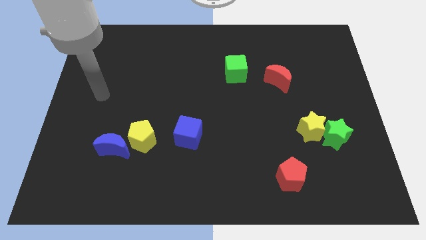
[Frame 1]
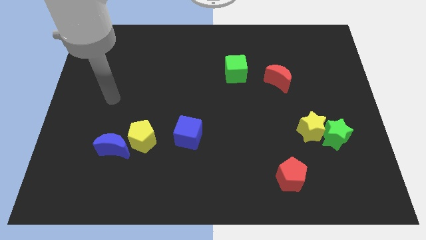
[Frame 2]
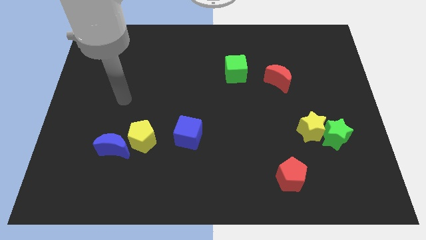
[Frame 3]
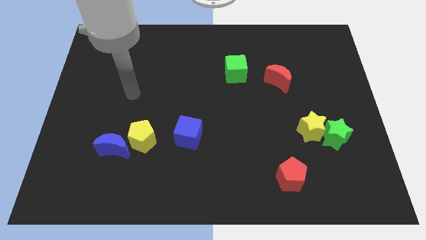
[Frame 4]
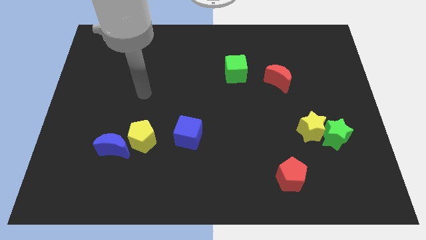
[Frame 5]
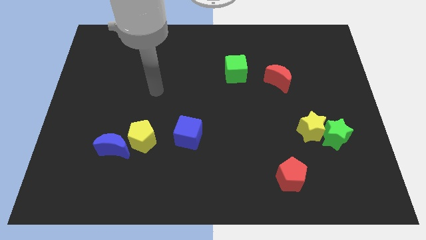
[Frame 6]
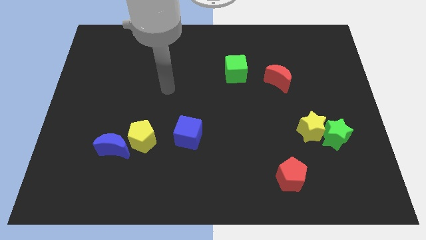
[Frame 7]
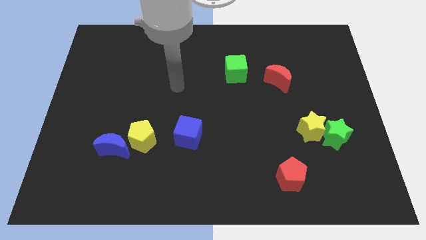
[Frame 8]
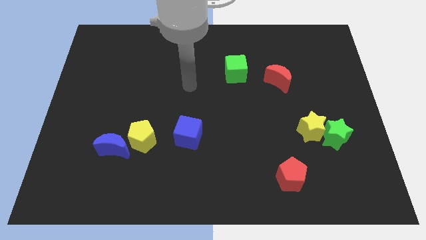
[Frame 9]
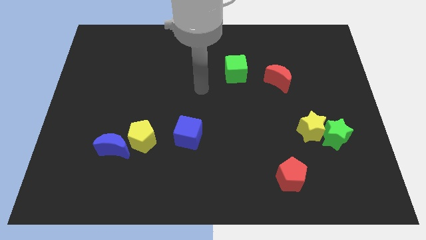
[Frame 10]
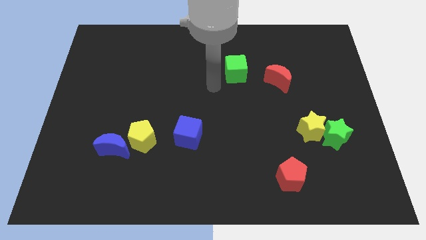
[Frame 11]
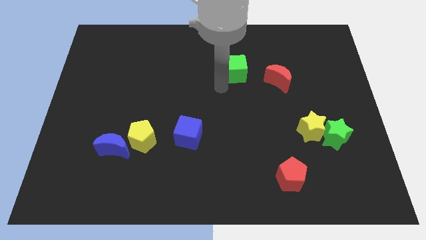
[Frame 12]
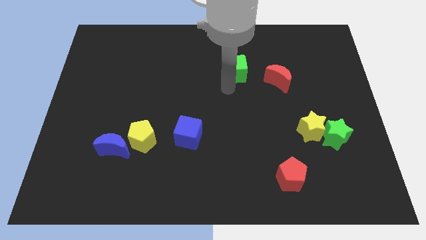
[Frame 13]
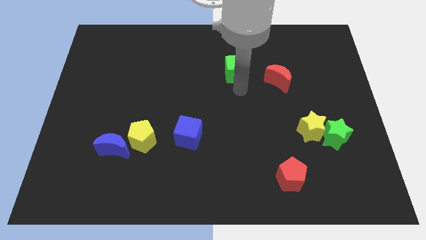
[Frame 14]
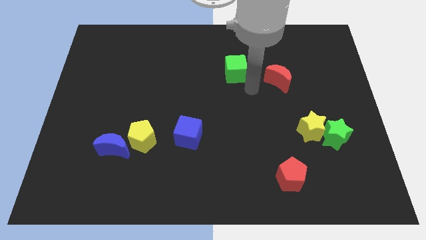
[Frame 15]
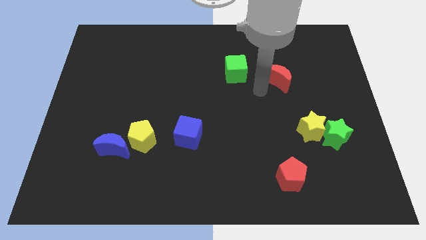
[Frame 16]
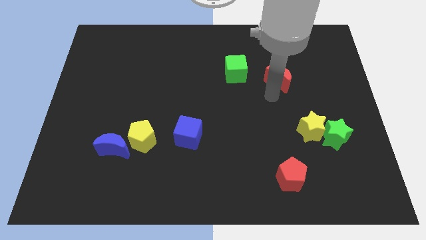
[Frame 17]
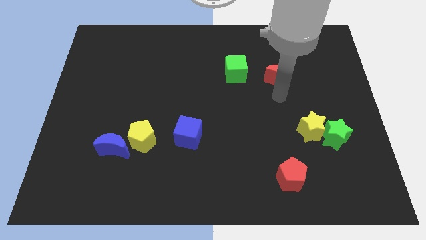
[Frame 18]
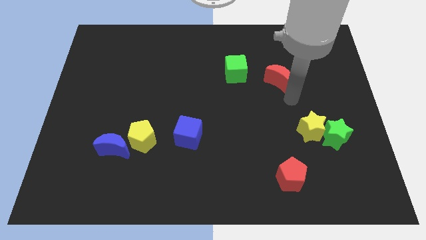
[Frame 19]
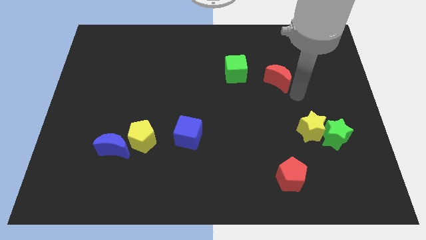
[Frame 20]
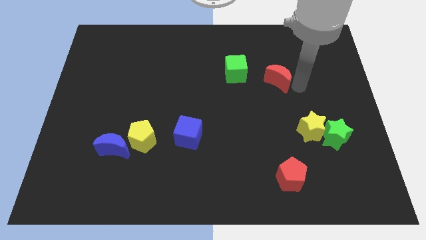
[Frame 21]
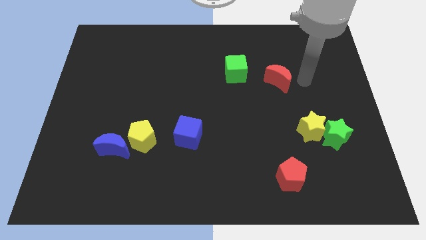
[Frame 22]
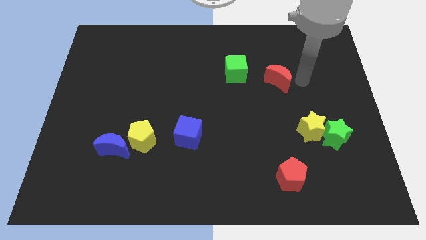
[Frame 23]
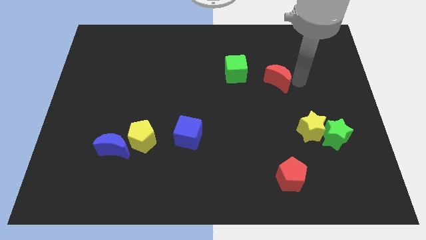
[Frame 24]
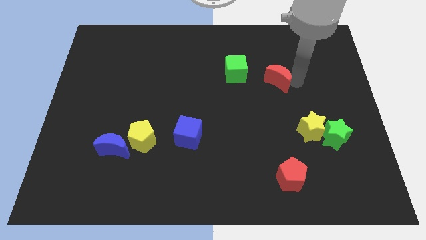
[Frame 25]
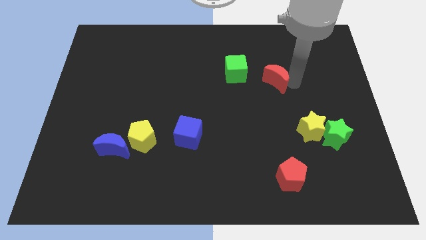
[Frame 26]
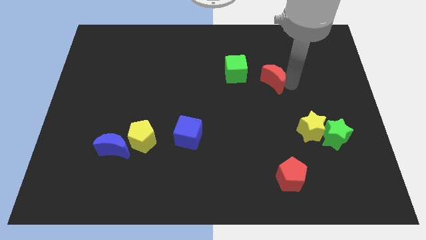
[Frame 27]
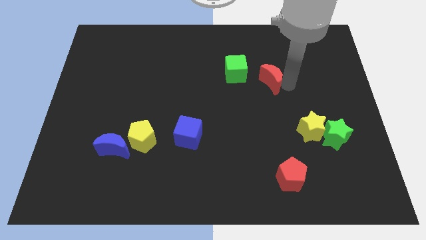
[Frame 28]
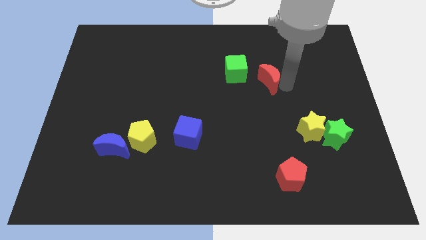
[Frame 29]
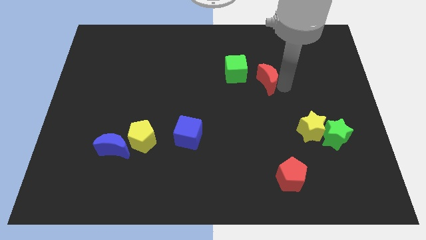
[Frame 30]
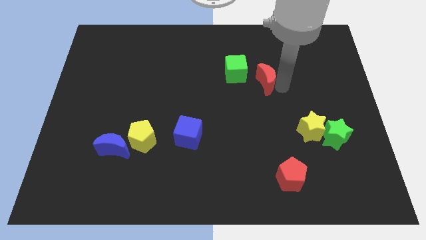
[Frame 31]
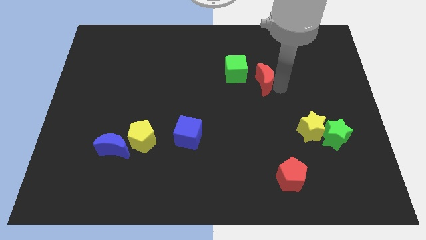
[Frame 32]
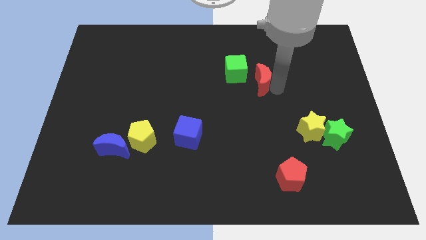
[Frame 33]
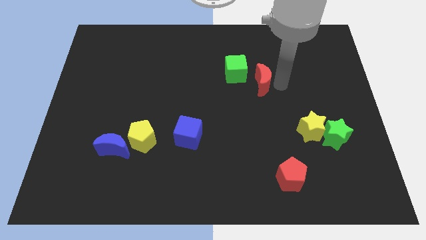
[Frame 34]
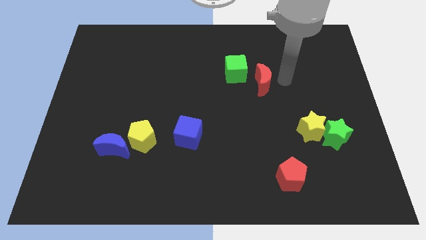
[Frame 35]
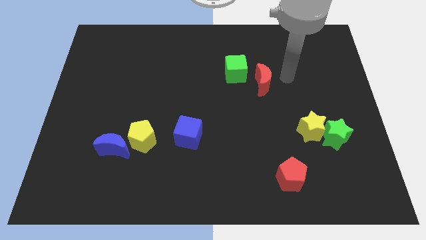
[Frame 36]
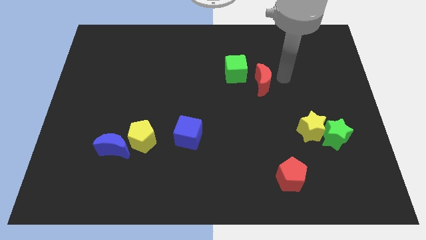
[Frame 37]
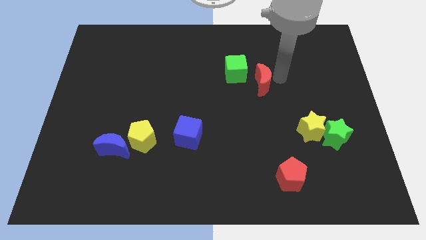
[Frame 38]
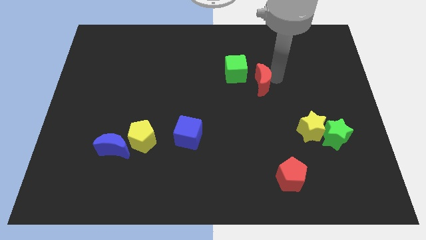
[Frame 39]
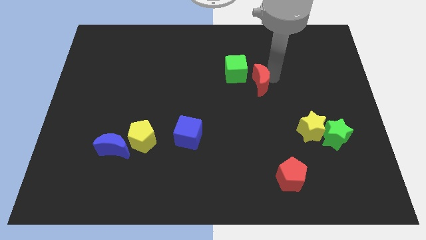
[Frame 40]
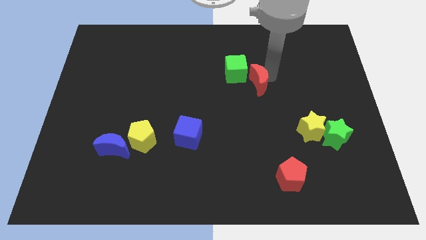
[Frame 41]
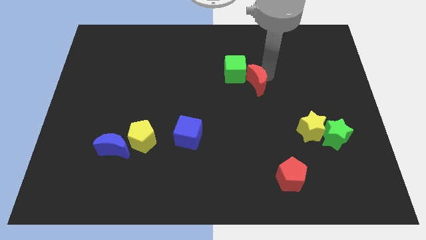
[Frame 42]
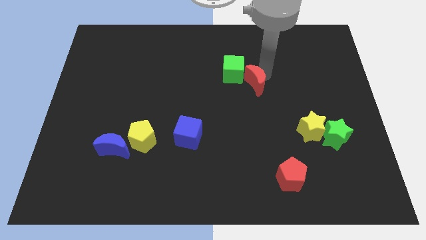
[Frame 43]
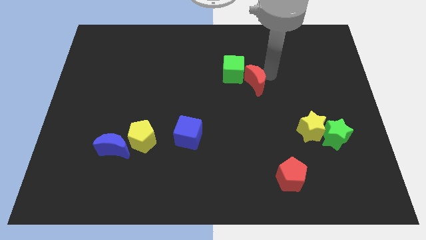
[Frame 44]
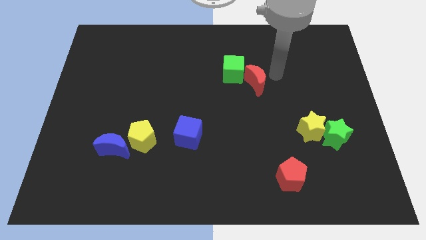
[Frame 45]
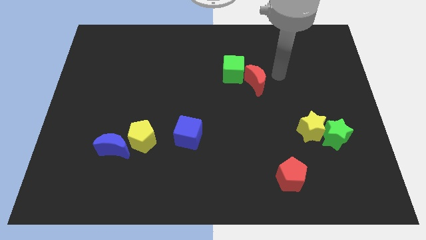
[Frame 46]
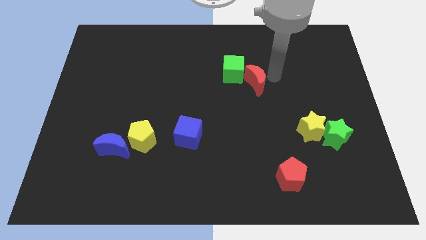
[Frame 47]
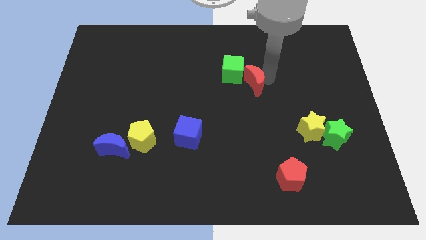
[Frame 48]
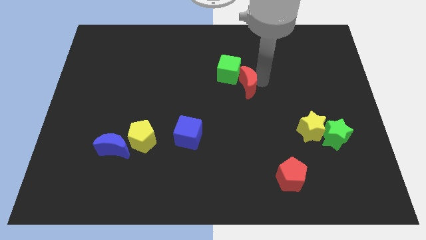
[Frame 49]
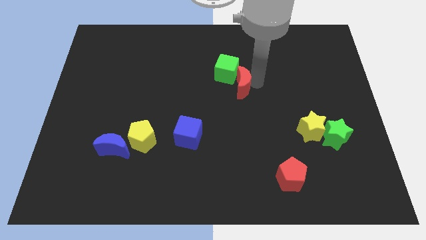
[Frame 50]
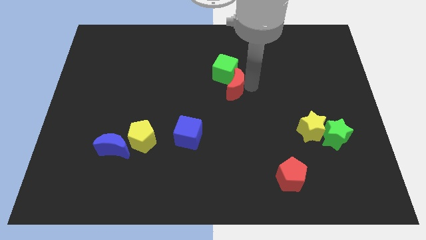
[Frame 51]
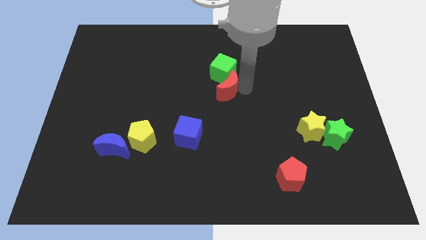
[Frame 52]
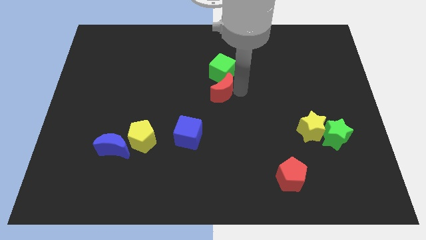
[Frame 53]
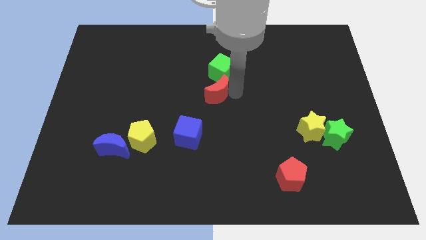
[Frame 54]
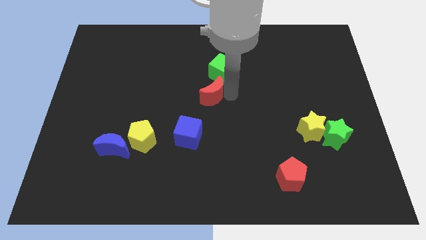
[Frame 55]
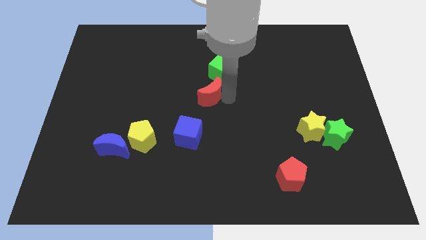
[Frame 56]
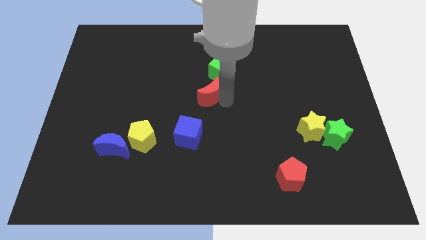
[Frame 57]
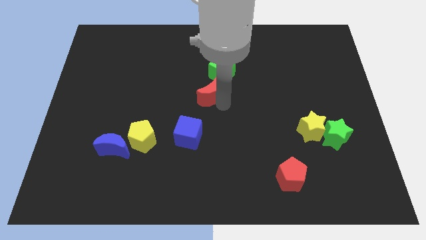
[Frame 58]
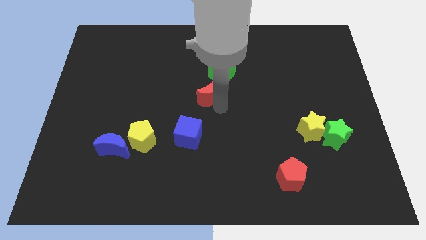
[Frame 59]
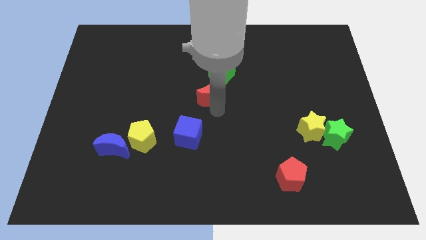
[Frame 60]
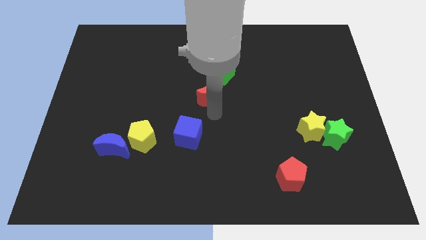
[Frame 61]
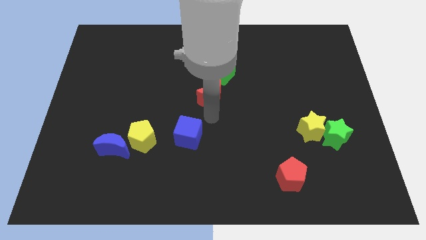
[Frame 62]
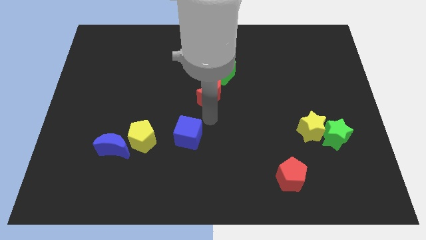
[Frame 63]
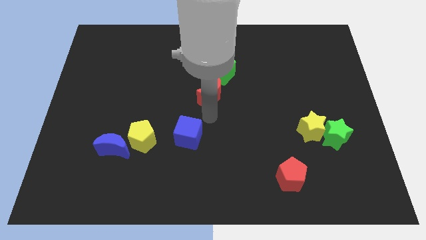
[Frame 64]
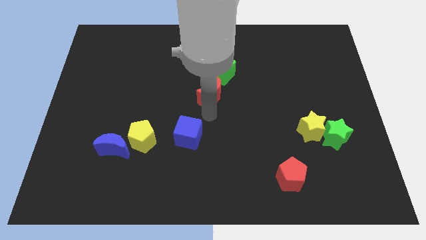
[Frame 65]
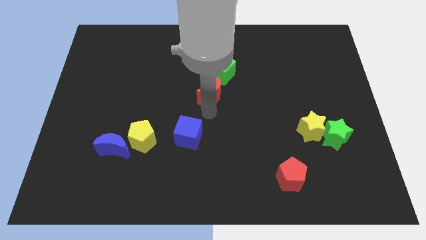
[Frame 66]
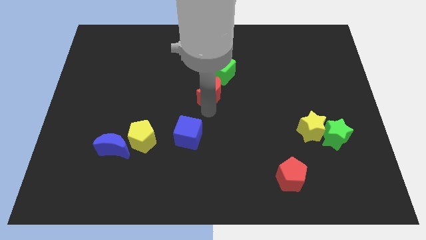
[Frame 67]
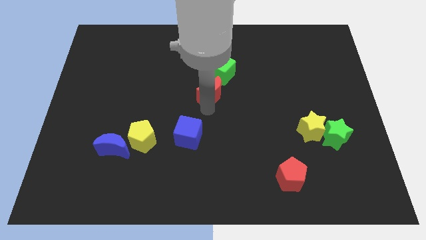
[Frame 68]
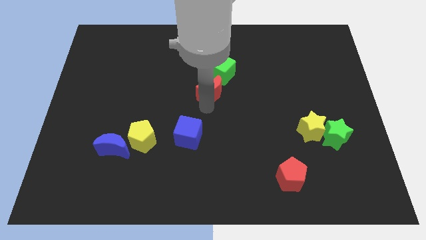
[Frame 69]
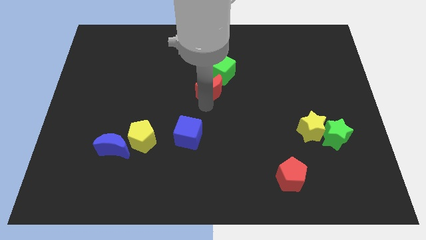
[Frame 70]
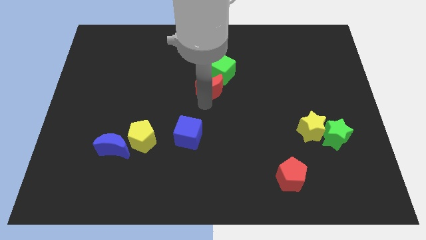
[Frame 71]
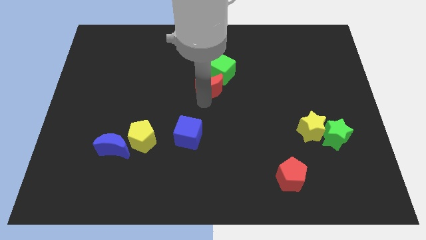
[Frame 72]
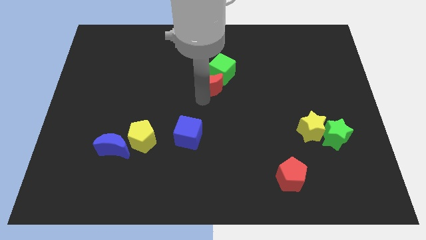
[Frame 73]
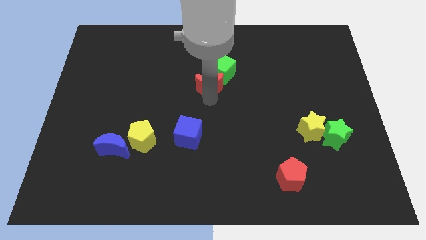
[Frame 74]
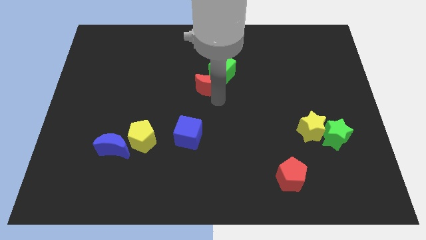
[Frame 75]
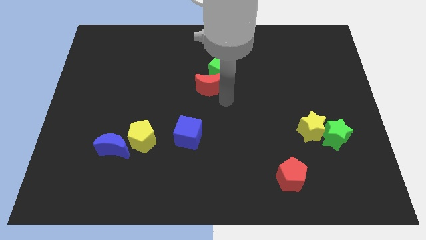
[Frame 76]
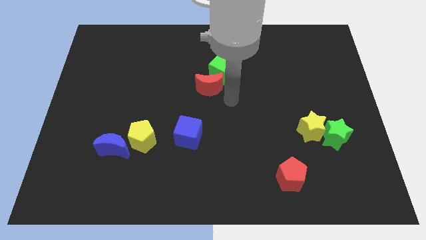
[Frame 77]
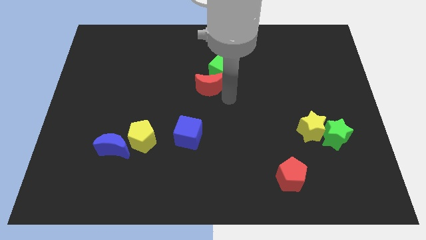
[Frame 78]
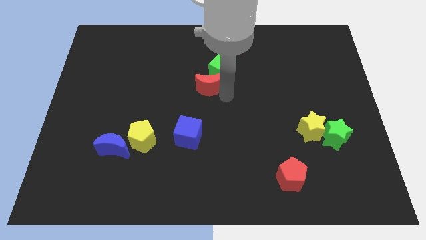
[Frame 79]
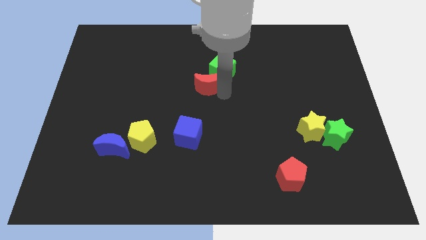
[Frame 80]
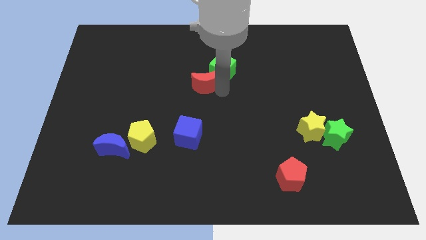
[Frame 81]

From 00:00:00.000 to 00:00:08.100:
slide the red moon to the left of the green cube
